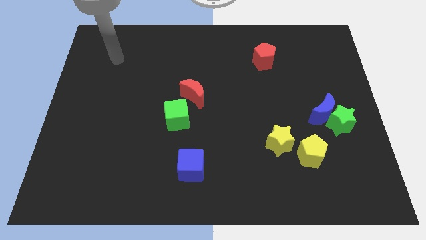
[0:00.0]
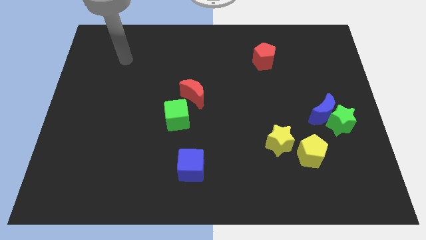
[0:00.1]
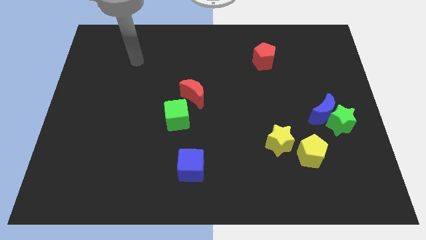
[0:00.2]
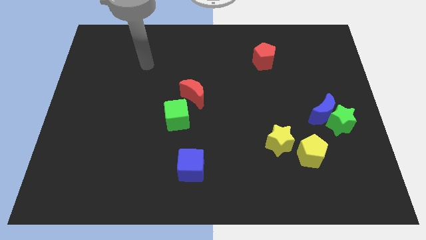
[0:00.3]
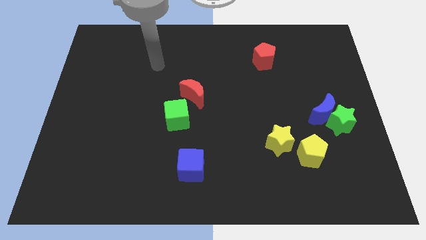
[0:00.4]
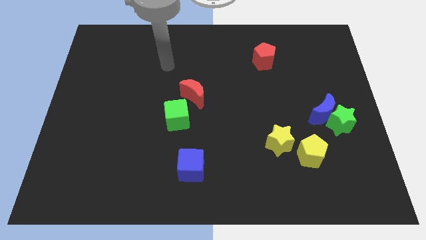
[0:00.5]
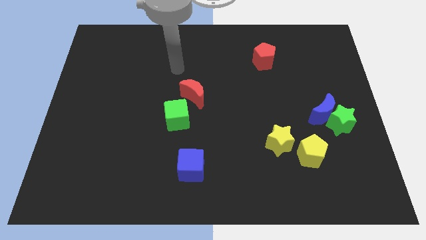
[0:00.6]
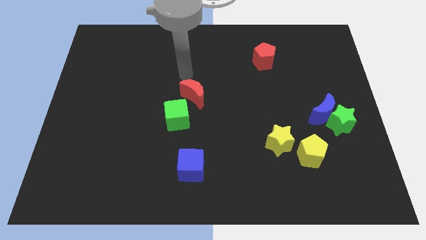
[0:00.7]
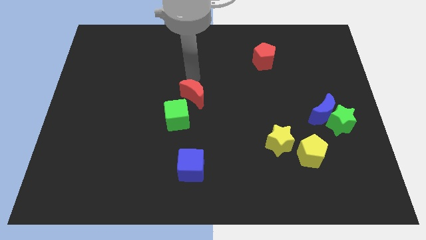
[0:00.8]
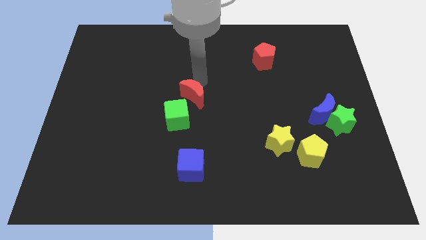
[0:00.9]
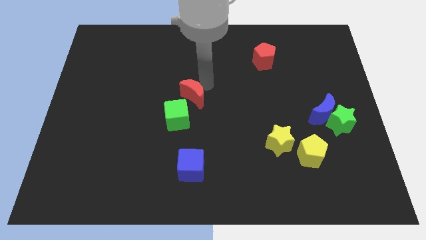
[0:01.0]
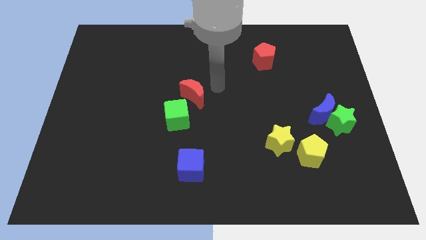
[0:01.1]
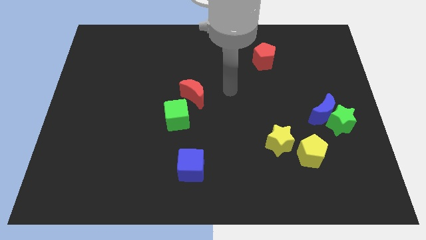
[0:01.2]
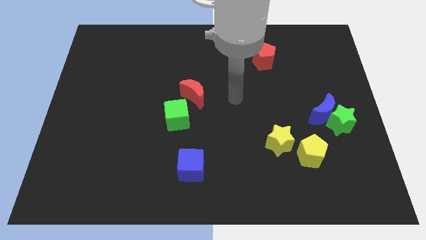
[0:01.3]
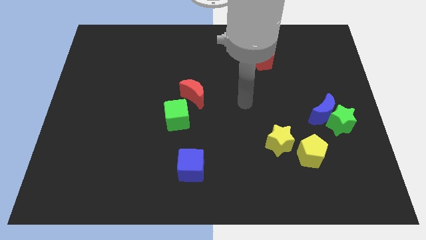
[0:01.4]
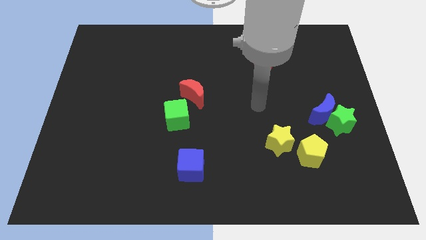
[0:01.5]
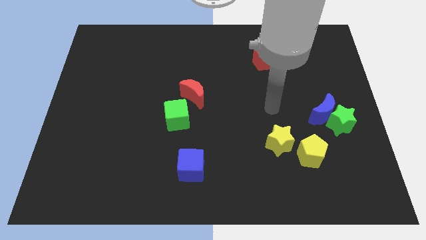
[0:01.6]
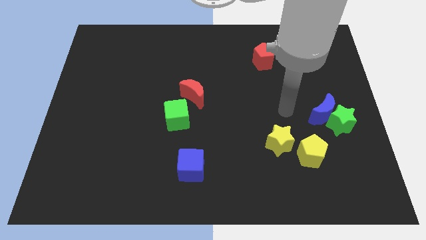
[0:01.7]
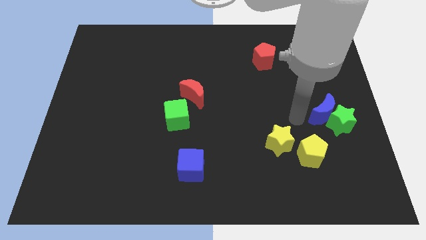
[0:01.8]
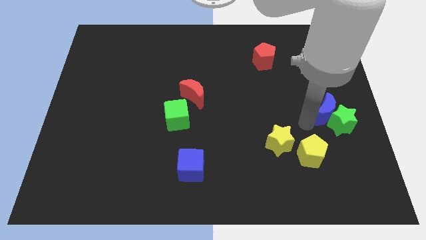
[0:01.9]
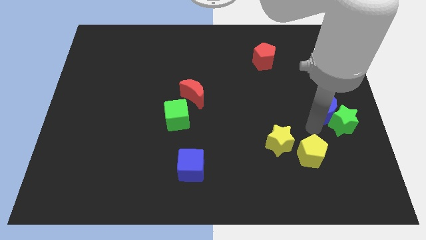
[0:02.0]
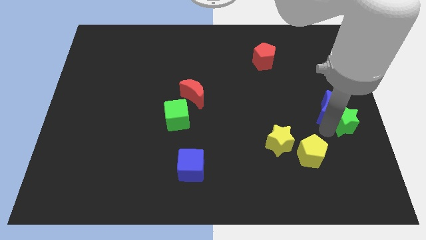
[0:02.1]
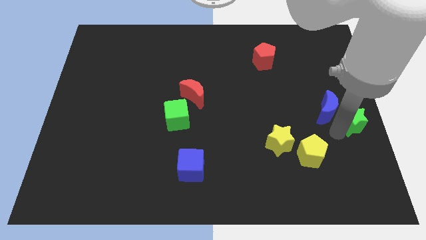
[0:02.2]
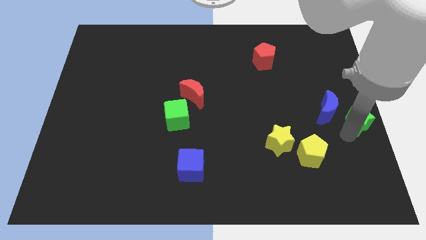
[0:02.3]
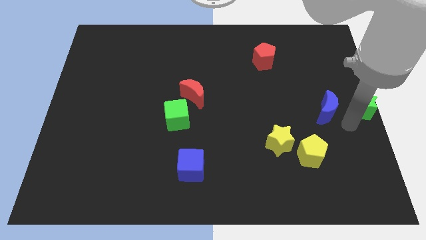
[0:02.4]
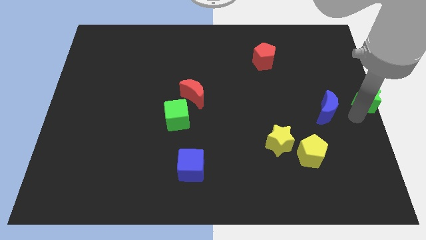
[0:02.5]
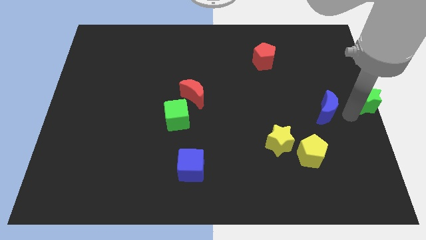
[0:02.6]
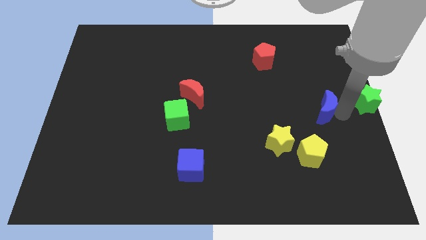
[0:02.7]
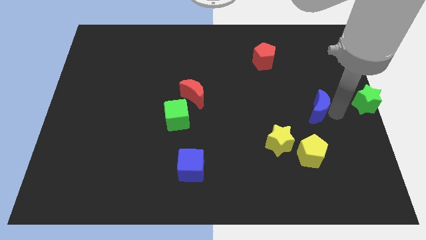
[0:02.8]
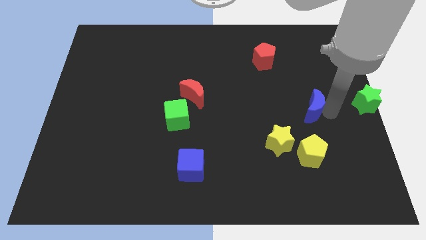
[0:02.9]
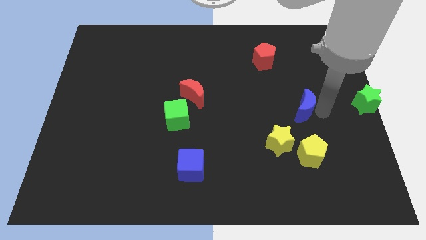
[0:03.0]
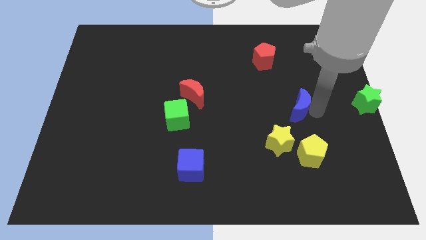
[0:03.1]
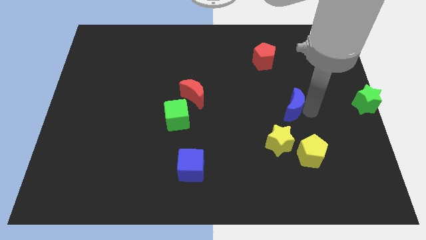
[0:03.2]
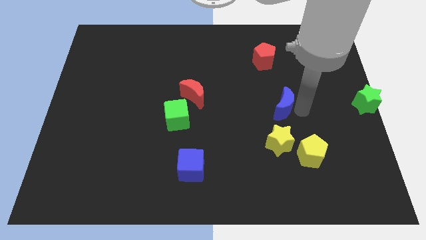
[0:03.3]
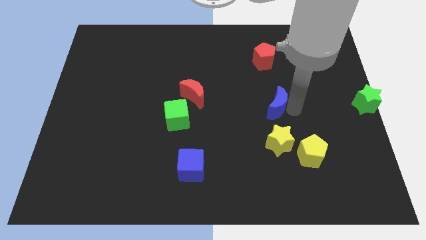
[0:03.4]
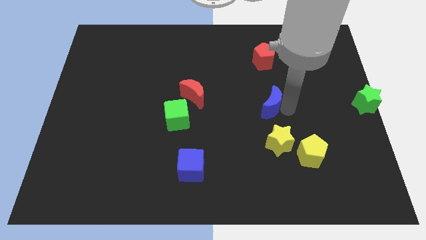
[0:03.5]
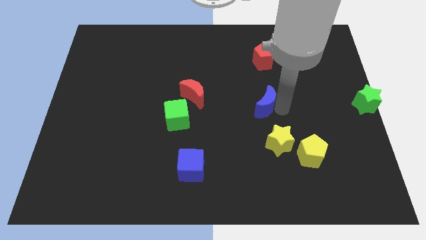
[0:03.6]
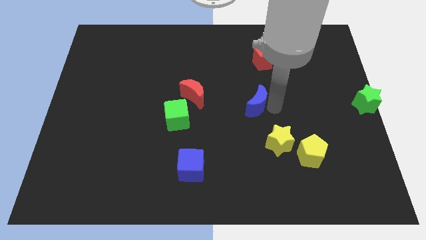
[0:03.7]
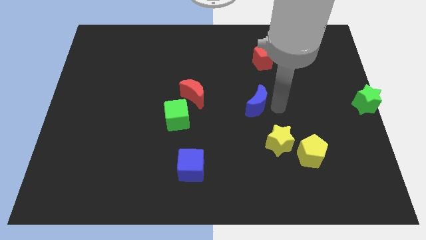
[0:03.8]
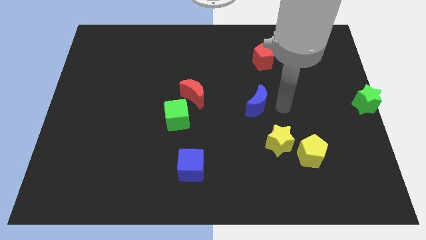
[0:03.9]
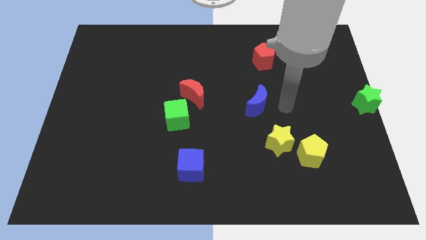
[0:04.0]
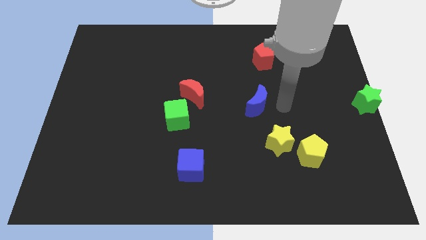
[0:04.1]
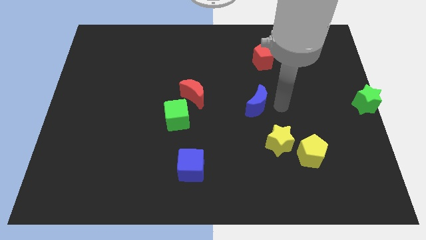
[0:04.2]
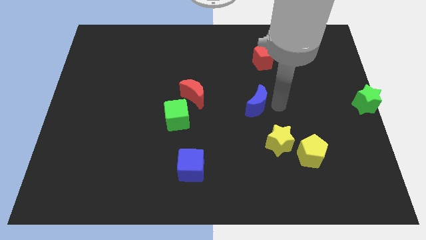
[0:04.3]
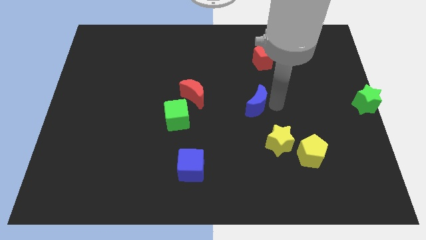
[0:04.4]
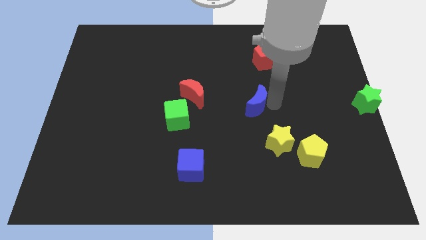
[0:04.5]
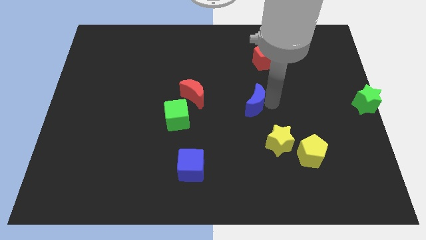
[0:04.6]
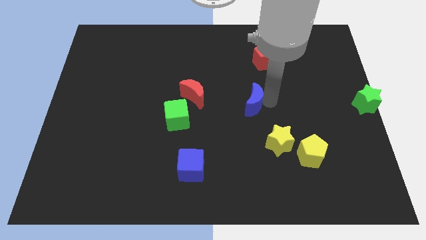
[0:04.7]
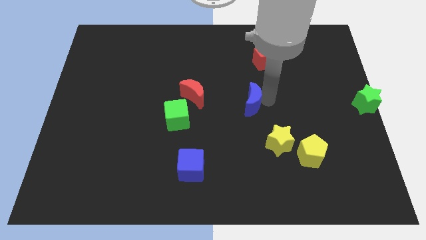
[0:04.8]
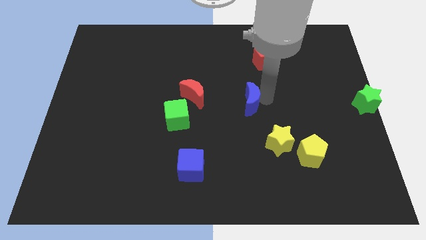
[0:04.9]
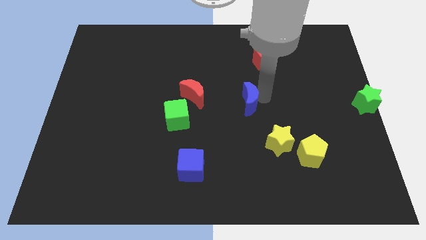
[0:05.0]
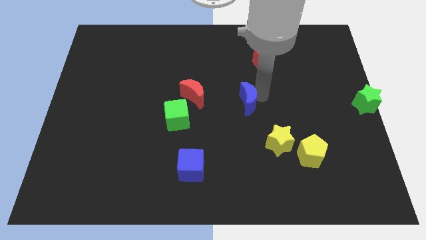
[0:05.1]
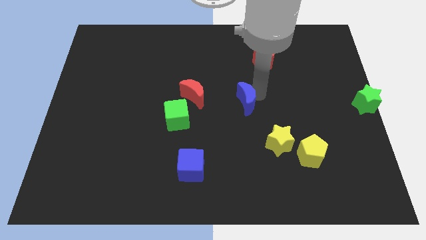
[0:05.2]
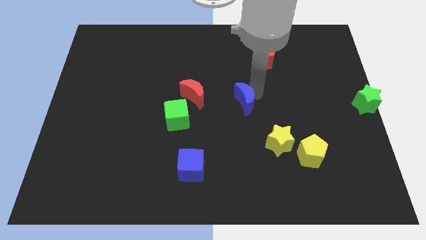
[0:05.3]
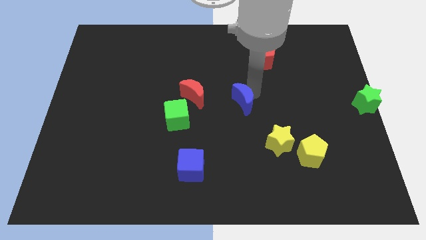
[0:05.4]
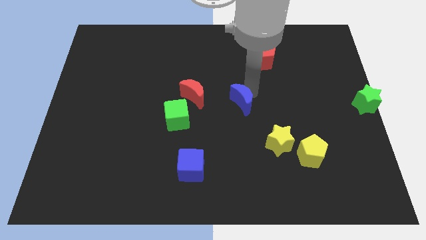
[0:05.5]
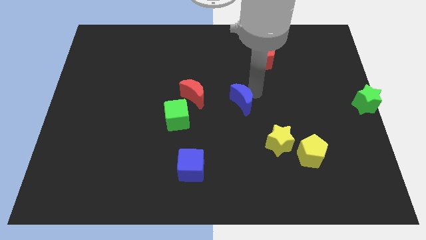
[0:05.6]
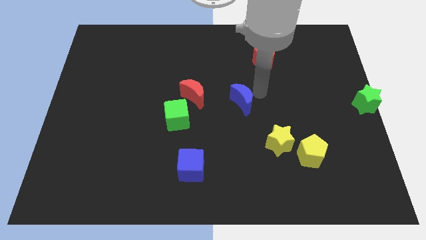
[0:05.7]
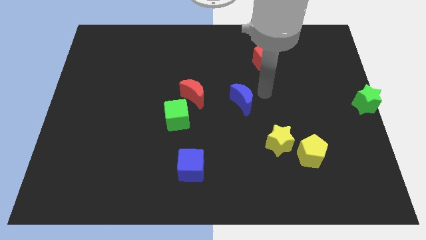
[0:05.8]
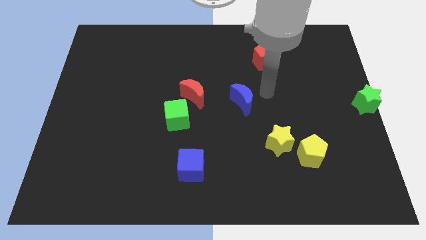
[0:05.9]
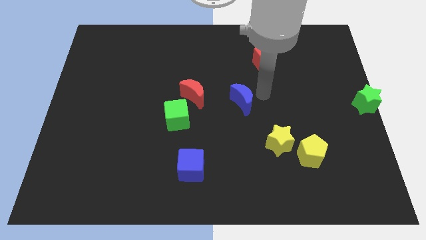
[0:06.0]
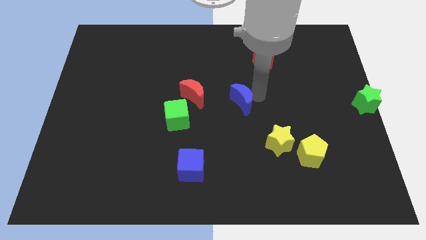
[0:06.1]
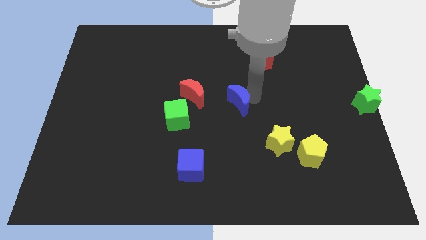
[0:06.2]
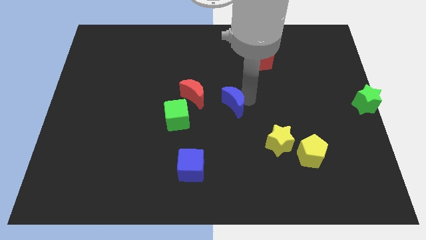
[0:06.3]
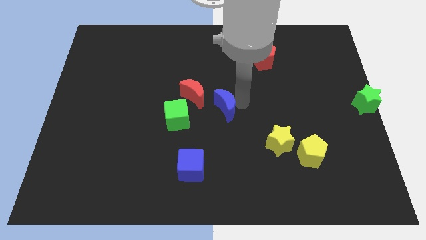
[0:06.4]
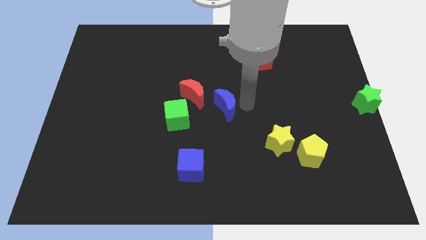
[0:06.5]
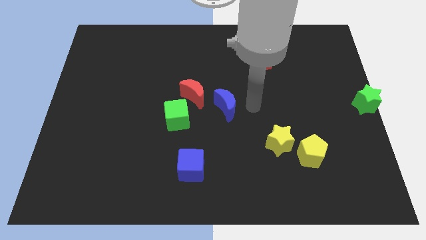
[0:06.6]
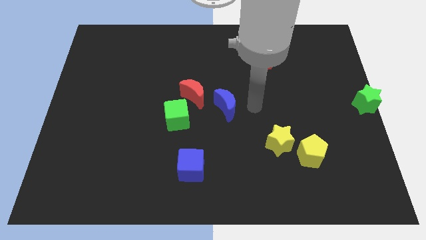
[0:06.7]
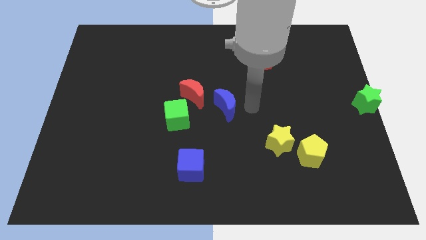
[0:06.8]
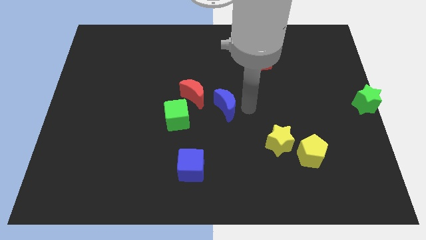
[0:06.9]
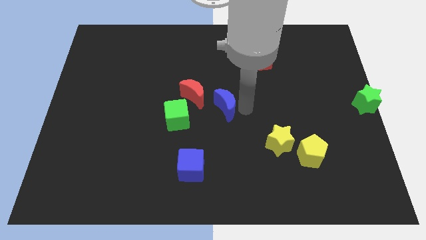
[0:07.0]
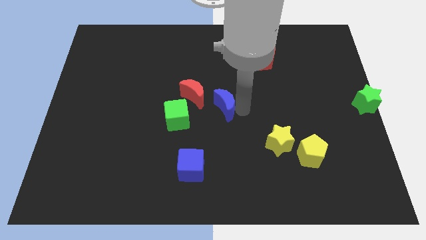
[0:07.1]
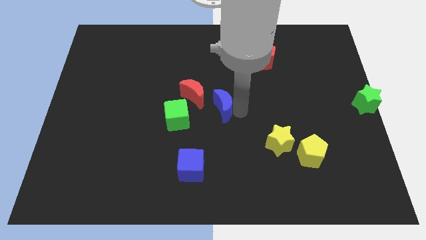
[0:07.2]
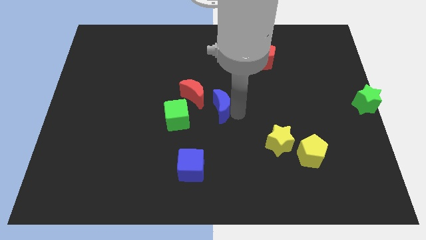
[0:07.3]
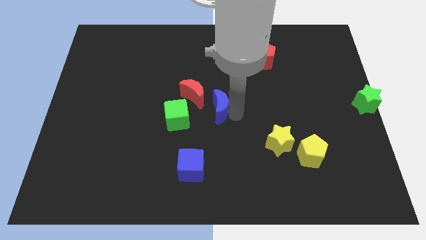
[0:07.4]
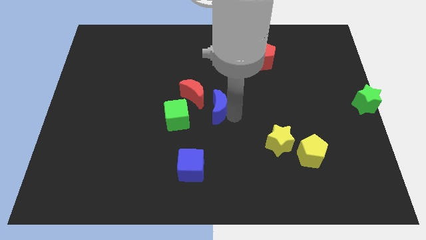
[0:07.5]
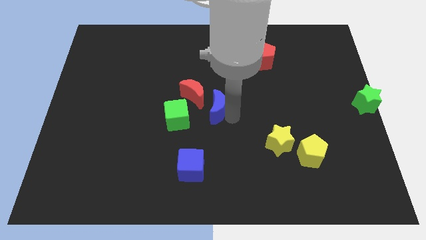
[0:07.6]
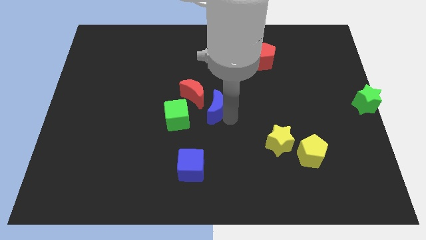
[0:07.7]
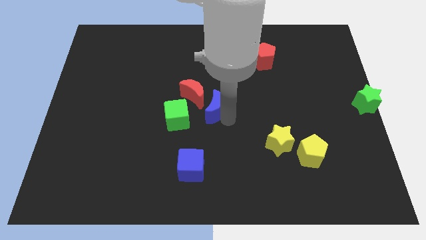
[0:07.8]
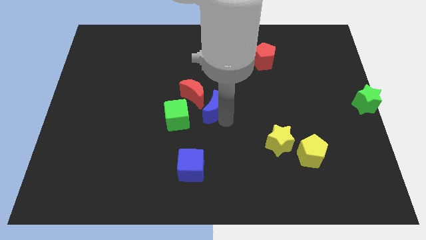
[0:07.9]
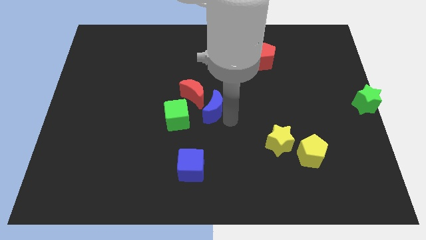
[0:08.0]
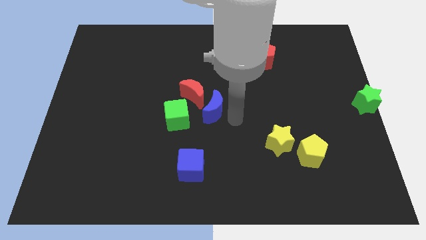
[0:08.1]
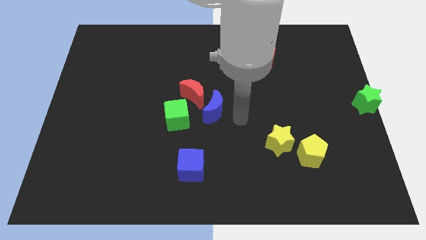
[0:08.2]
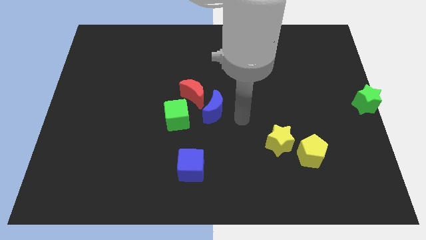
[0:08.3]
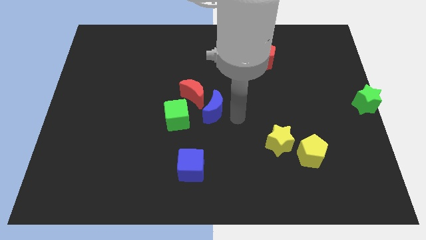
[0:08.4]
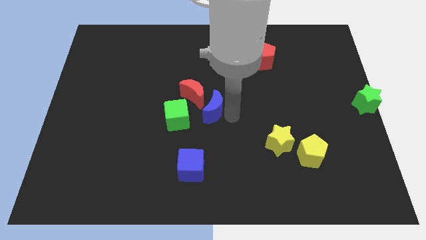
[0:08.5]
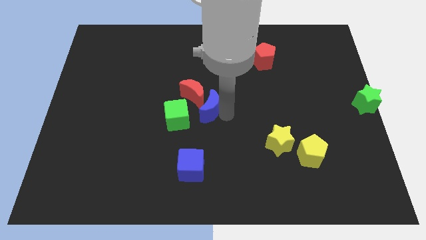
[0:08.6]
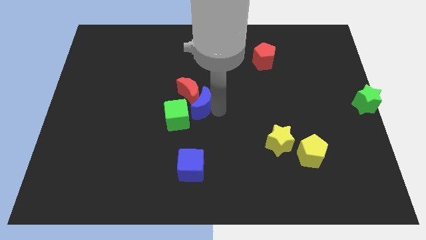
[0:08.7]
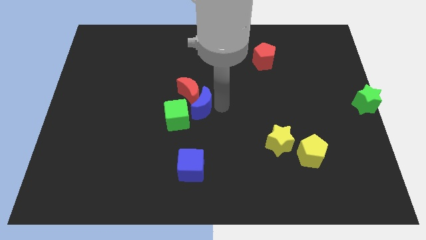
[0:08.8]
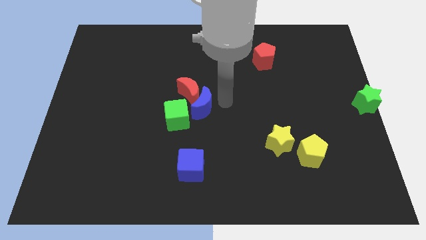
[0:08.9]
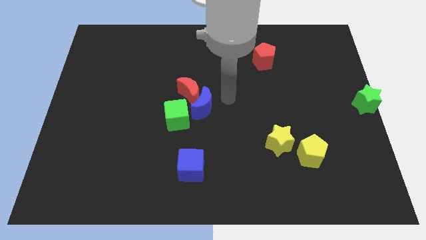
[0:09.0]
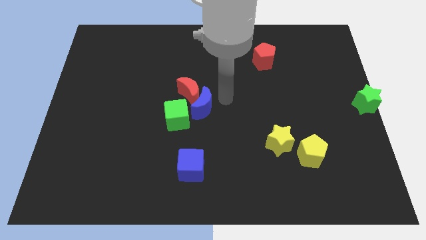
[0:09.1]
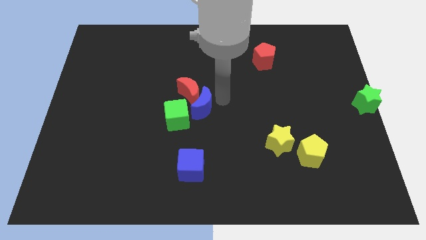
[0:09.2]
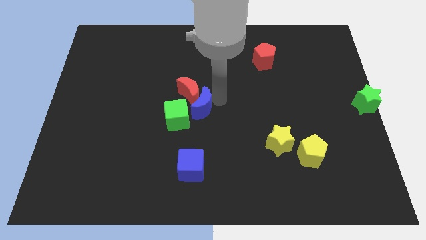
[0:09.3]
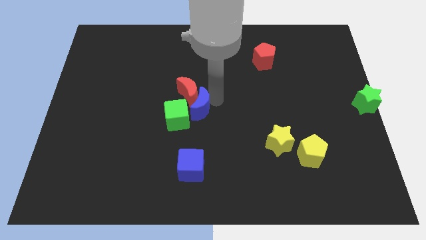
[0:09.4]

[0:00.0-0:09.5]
put the blue moon towards the green cube
